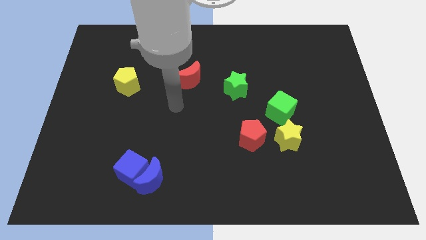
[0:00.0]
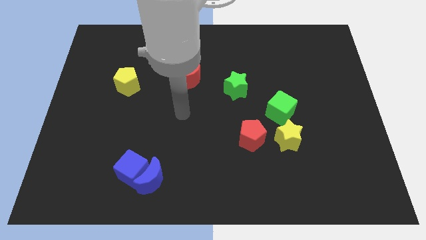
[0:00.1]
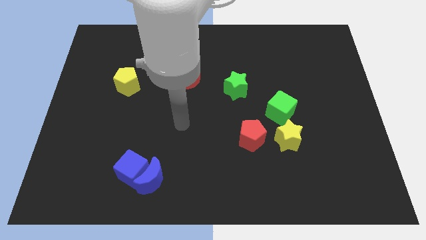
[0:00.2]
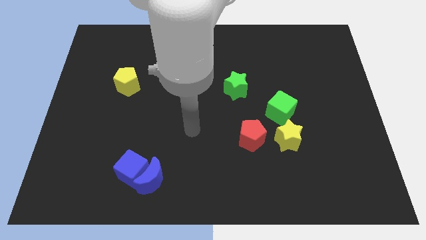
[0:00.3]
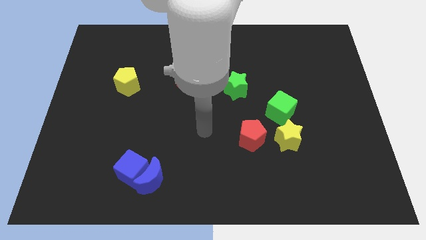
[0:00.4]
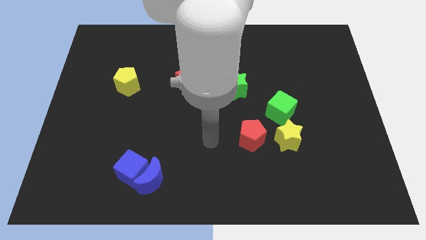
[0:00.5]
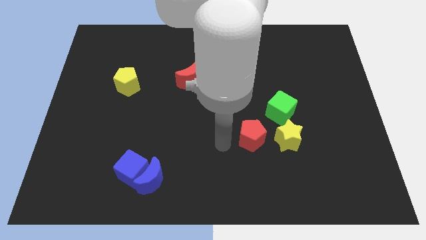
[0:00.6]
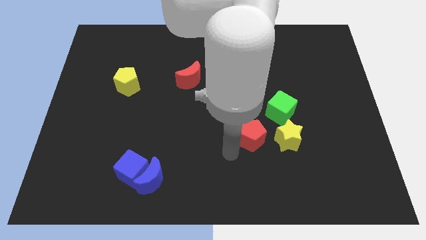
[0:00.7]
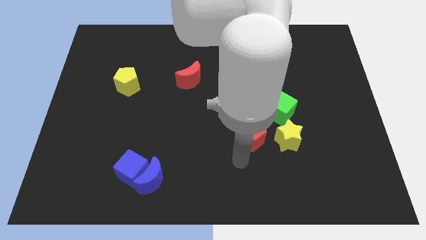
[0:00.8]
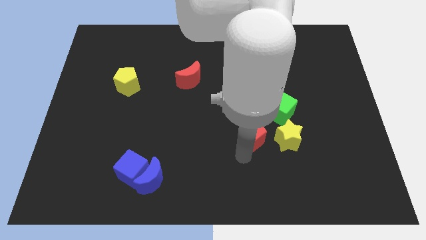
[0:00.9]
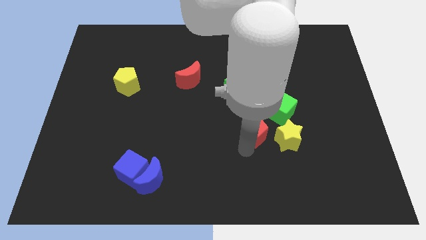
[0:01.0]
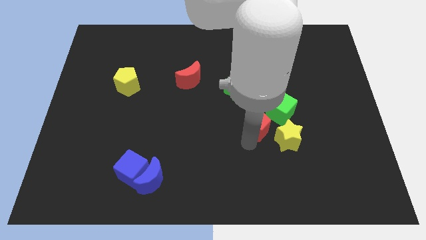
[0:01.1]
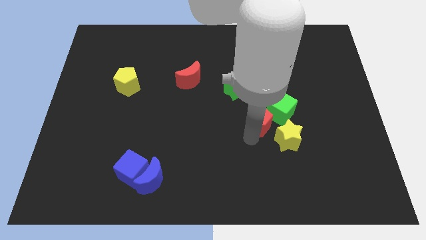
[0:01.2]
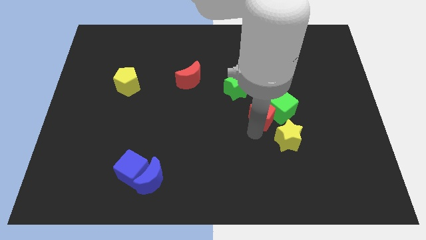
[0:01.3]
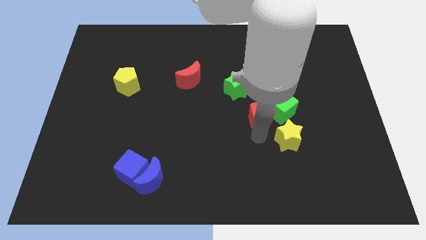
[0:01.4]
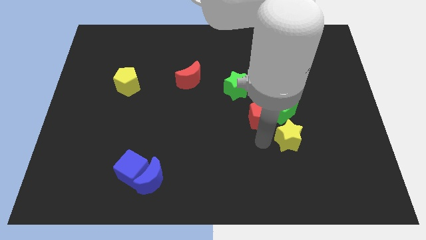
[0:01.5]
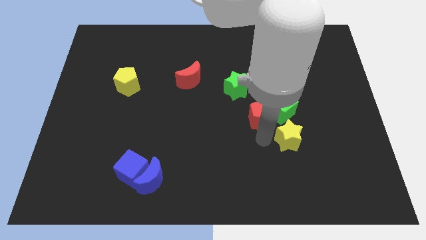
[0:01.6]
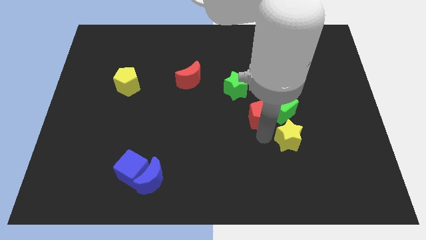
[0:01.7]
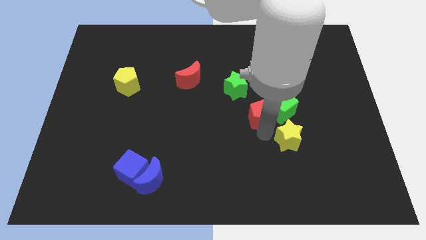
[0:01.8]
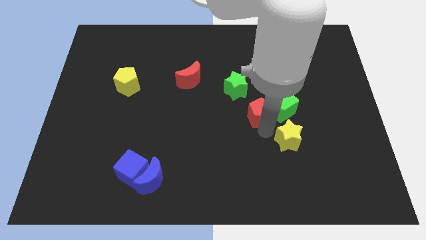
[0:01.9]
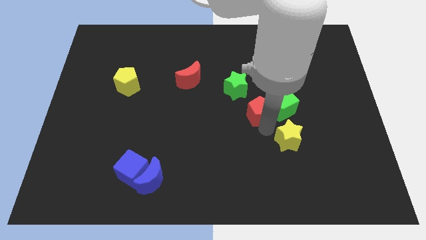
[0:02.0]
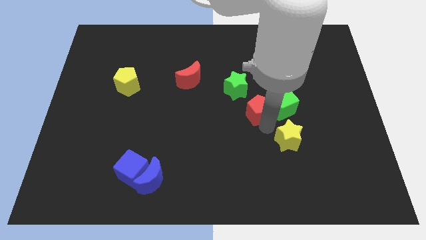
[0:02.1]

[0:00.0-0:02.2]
move the red pentagon a little bit up

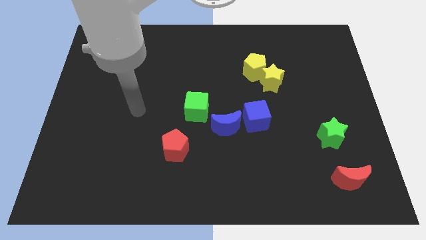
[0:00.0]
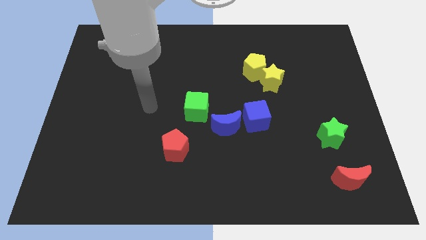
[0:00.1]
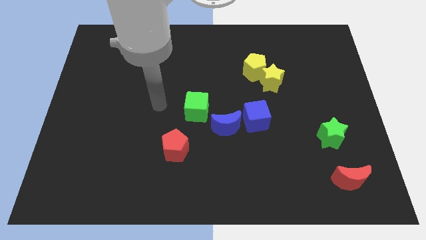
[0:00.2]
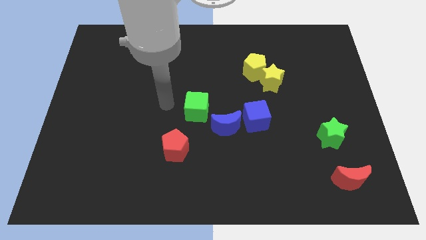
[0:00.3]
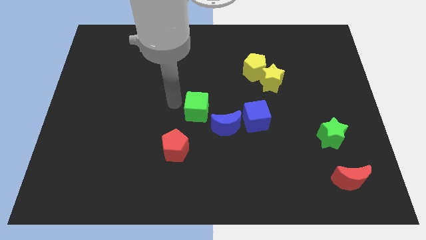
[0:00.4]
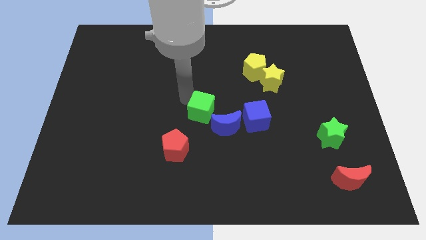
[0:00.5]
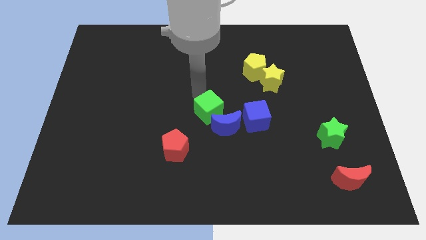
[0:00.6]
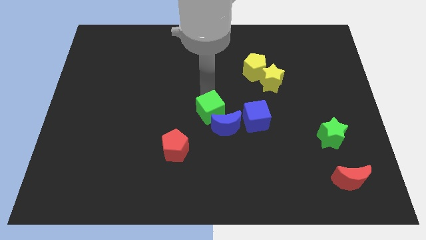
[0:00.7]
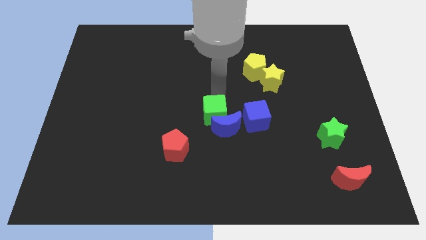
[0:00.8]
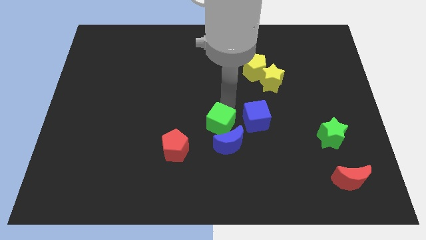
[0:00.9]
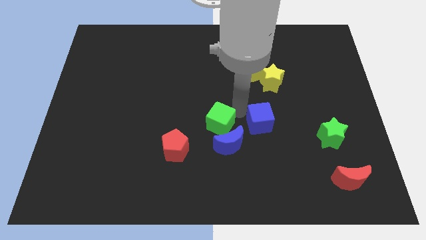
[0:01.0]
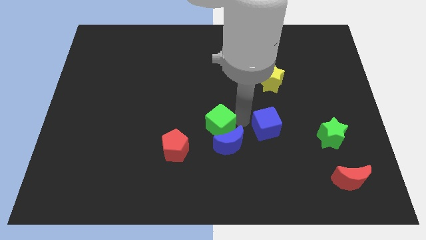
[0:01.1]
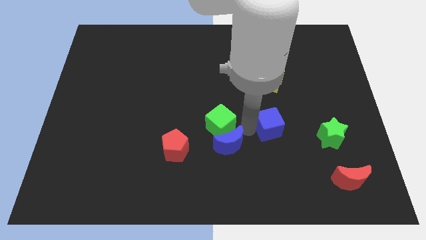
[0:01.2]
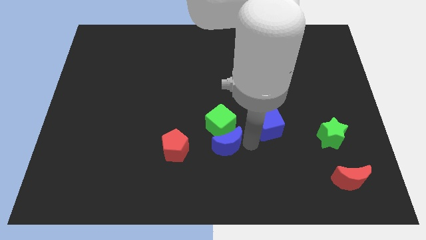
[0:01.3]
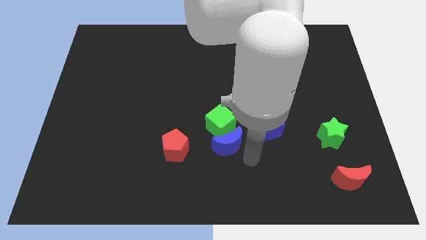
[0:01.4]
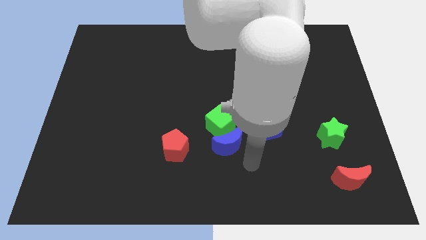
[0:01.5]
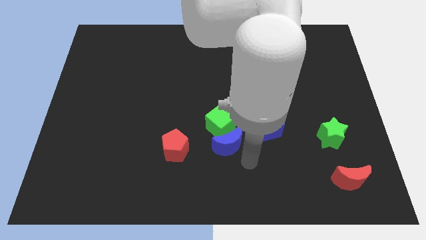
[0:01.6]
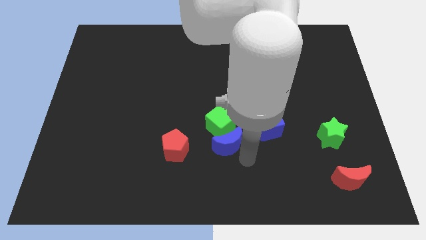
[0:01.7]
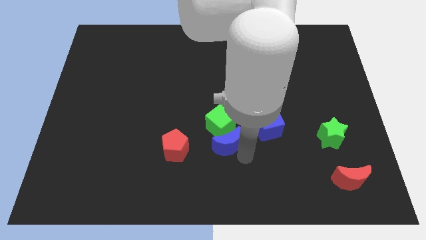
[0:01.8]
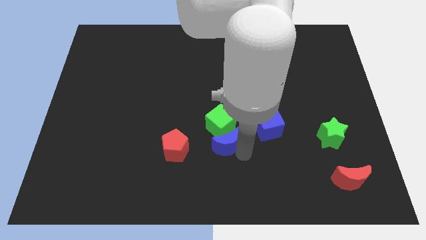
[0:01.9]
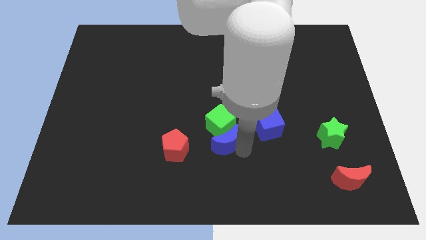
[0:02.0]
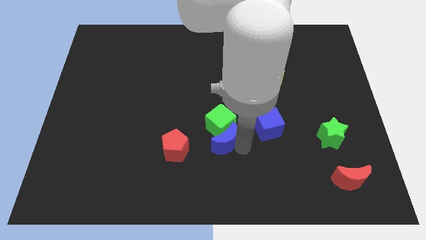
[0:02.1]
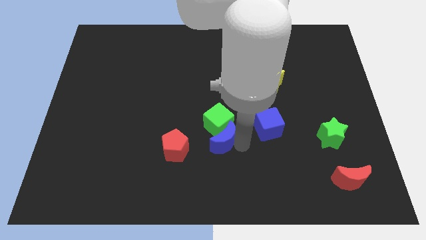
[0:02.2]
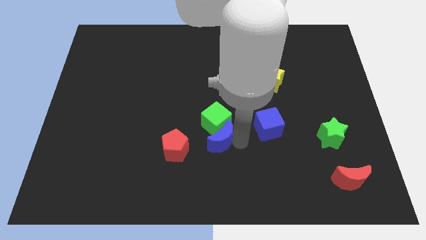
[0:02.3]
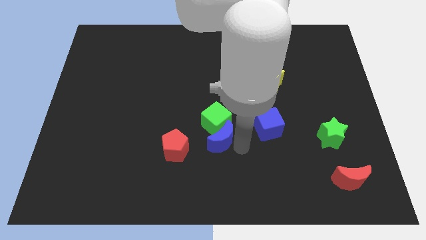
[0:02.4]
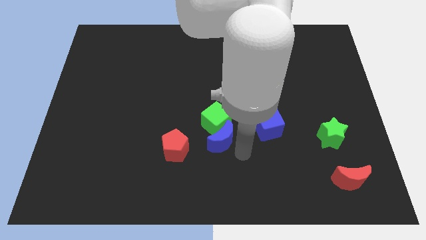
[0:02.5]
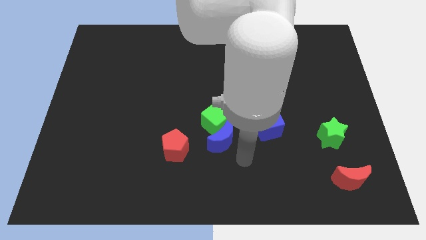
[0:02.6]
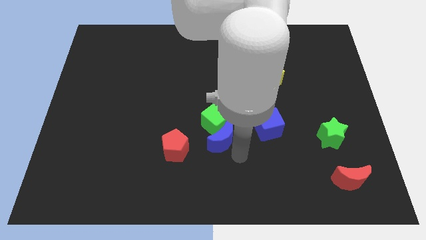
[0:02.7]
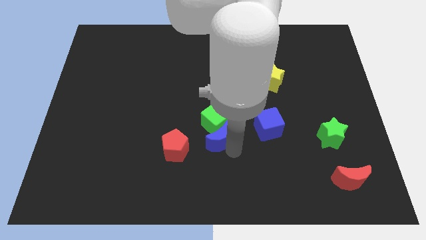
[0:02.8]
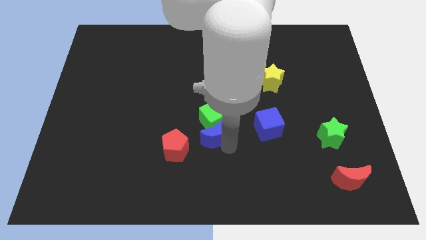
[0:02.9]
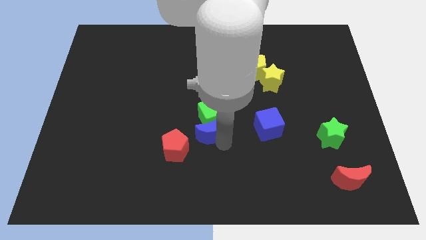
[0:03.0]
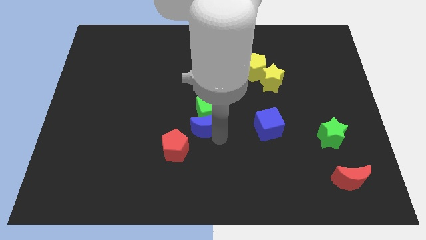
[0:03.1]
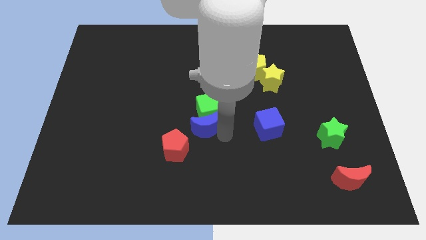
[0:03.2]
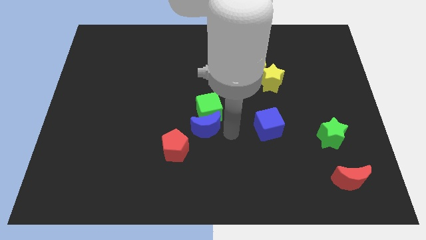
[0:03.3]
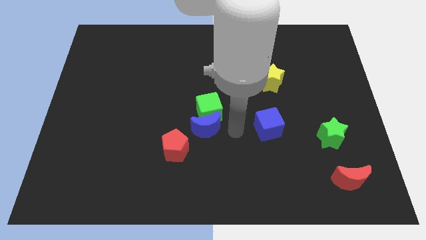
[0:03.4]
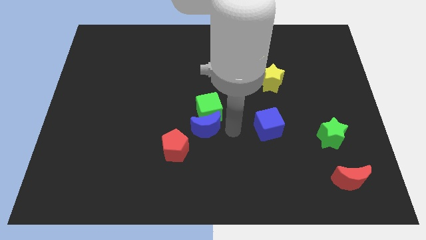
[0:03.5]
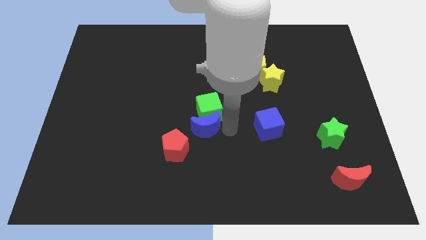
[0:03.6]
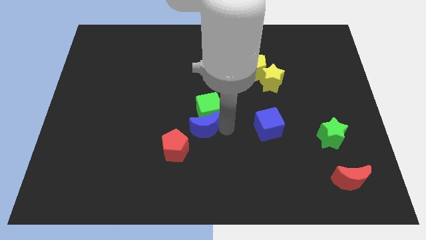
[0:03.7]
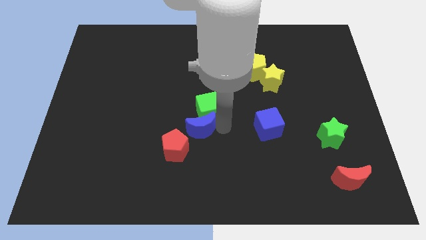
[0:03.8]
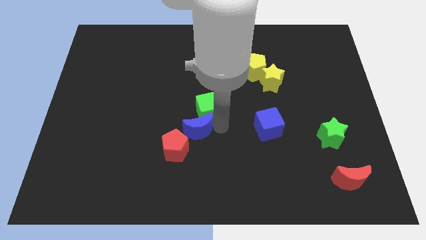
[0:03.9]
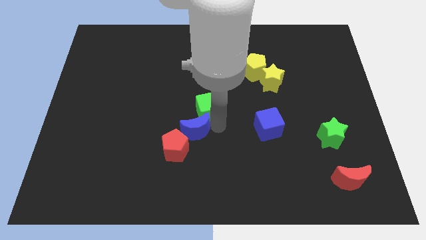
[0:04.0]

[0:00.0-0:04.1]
push the blue moon slightly to the left

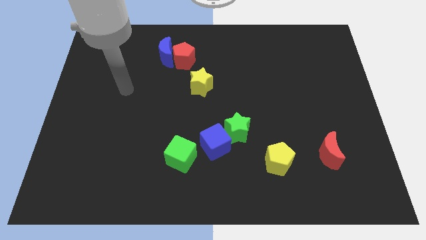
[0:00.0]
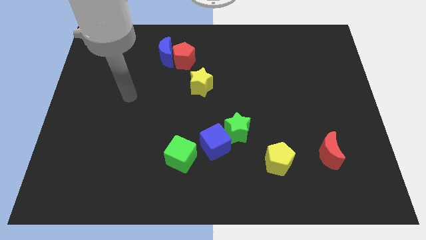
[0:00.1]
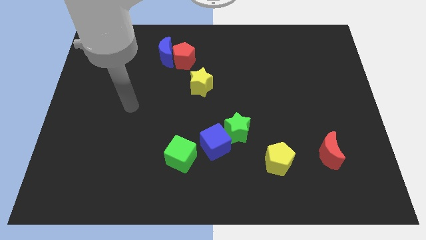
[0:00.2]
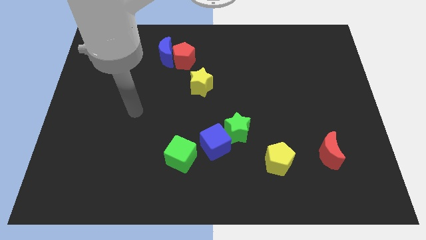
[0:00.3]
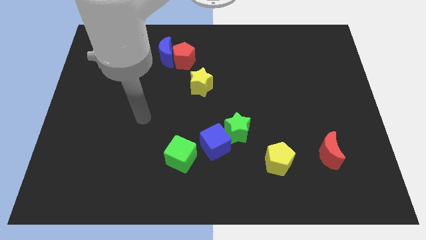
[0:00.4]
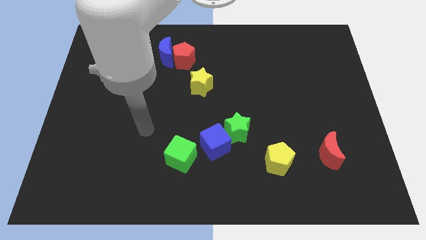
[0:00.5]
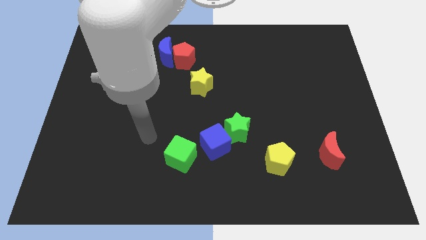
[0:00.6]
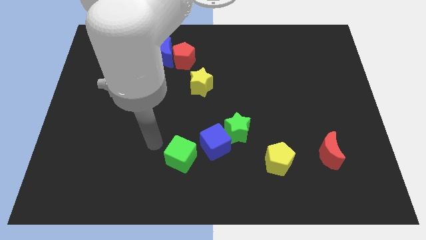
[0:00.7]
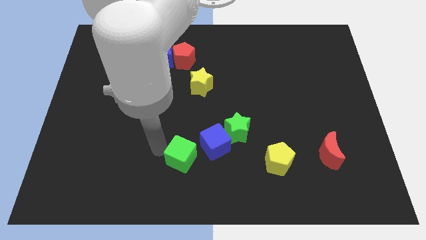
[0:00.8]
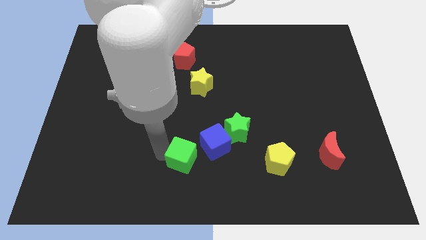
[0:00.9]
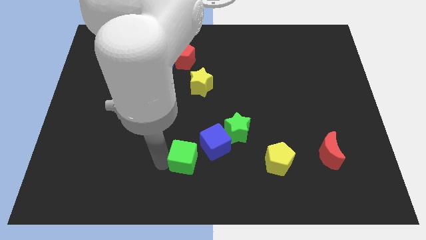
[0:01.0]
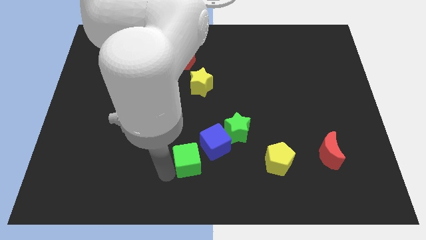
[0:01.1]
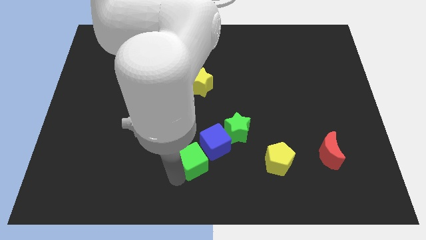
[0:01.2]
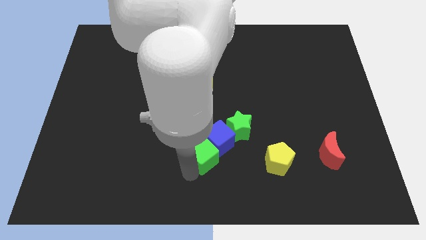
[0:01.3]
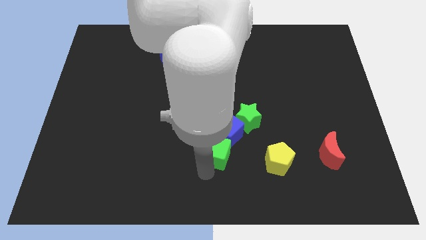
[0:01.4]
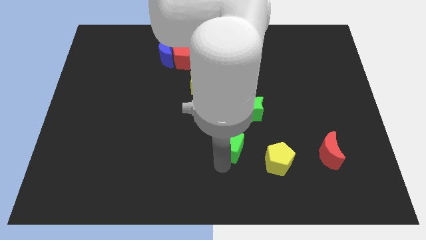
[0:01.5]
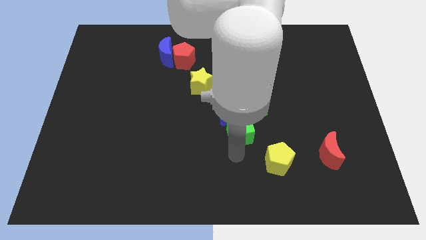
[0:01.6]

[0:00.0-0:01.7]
slide the blue cube upwards a little bit

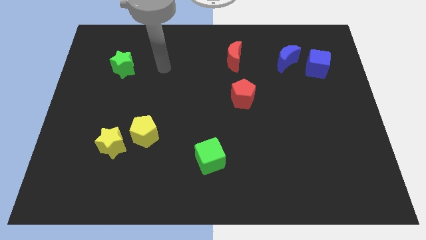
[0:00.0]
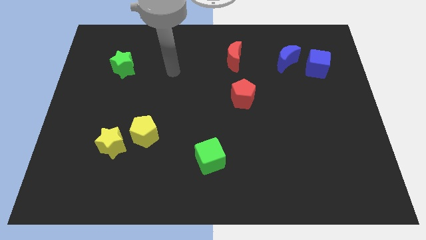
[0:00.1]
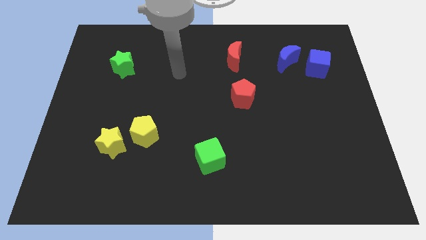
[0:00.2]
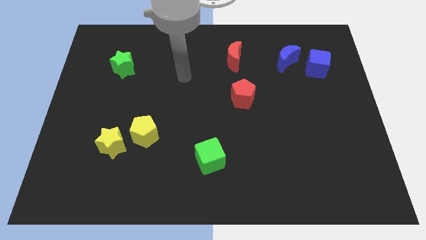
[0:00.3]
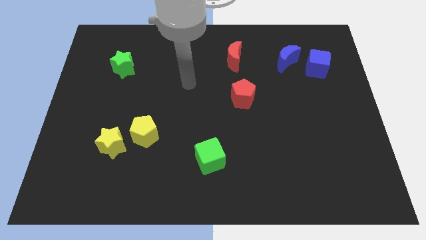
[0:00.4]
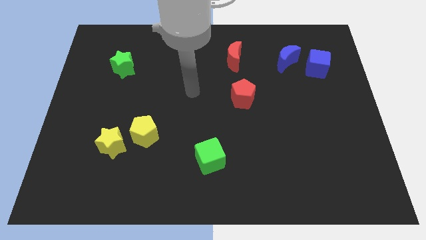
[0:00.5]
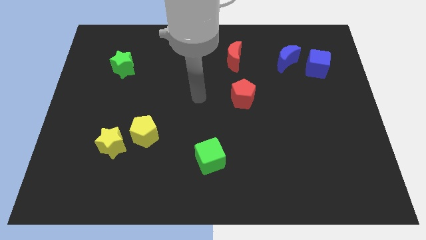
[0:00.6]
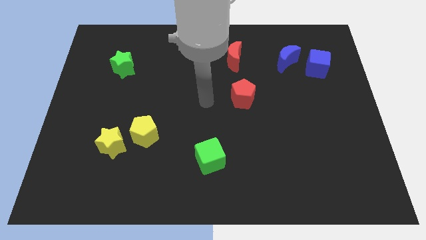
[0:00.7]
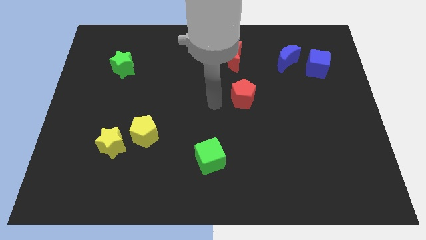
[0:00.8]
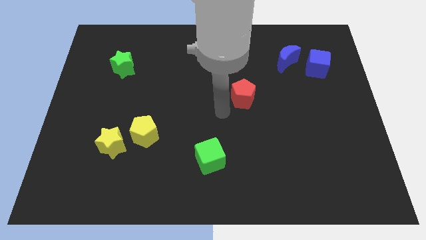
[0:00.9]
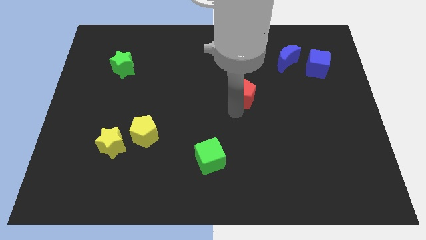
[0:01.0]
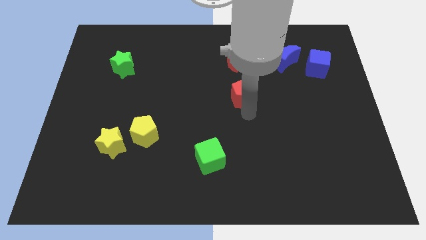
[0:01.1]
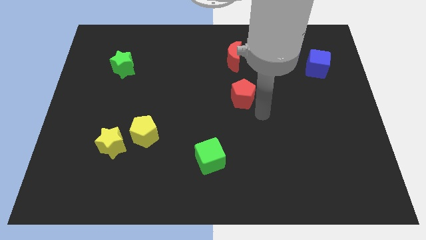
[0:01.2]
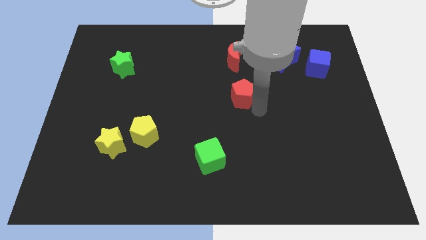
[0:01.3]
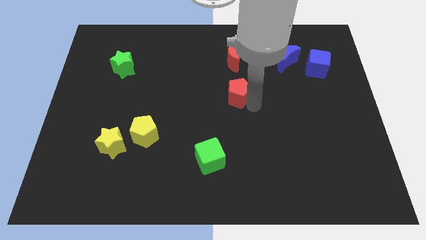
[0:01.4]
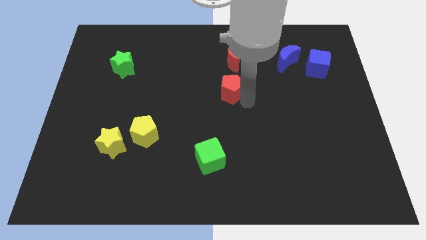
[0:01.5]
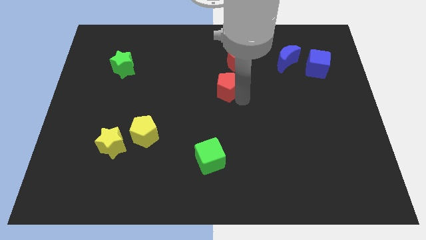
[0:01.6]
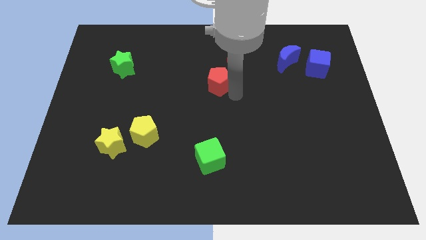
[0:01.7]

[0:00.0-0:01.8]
slide the red pentagon up and left diagonally a bit
